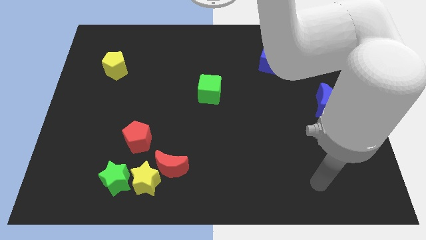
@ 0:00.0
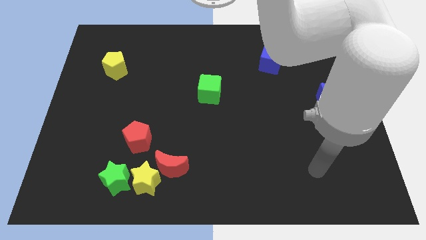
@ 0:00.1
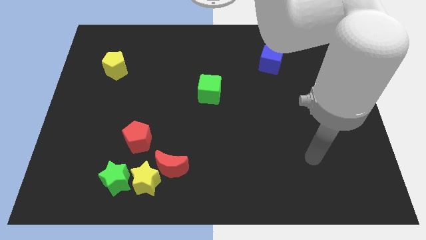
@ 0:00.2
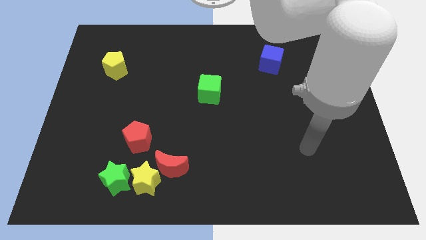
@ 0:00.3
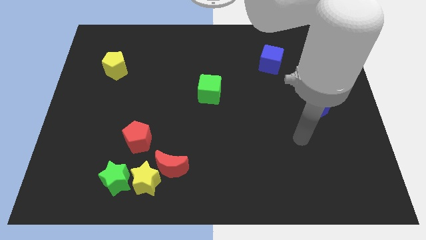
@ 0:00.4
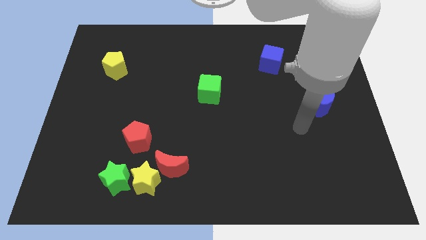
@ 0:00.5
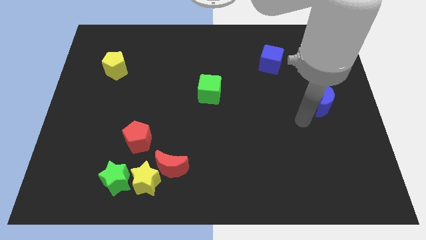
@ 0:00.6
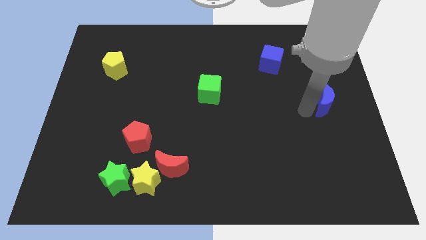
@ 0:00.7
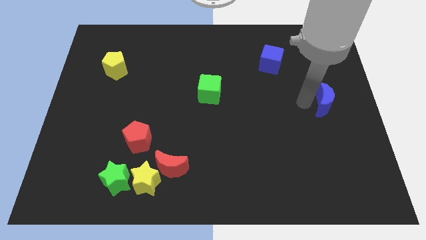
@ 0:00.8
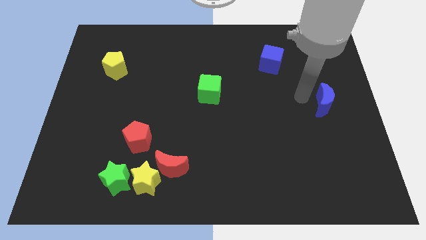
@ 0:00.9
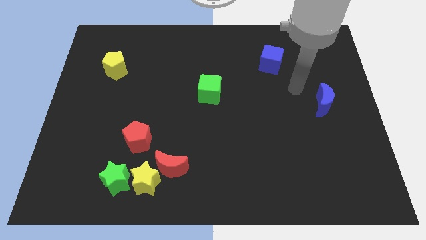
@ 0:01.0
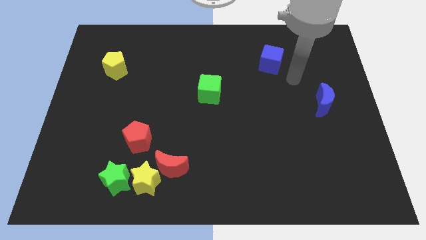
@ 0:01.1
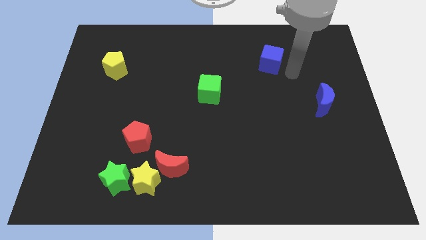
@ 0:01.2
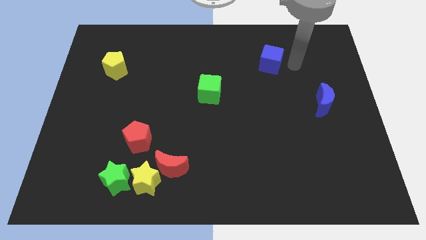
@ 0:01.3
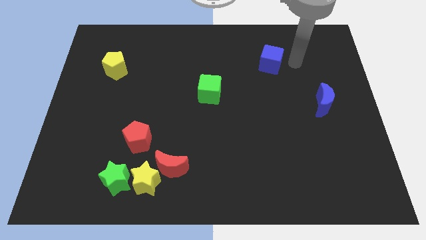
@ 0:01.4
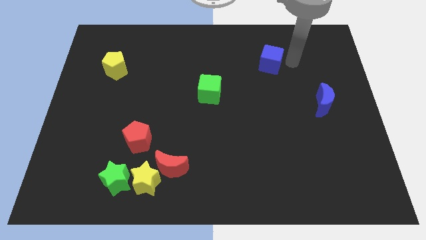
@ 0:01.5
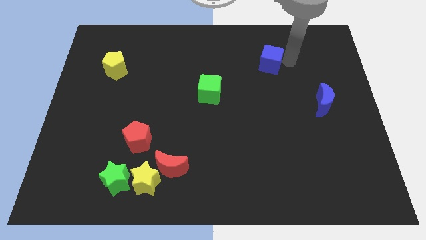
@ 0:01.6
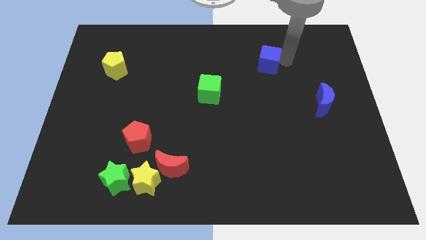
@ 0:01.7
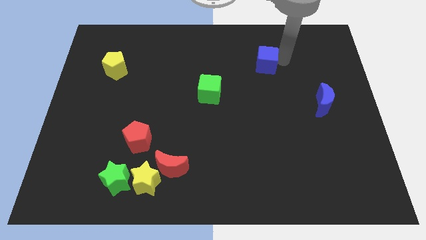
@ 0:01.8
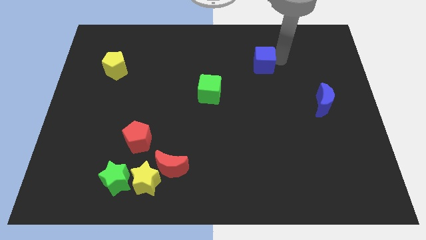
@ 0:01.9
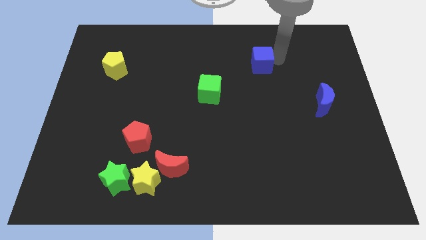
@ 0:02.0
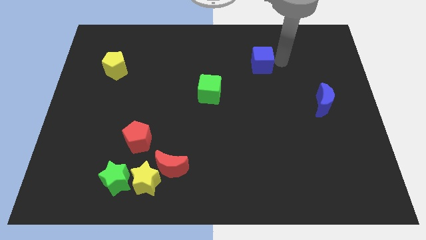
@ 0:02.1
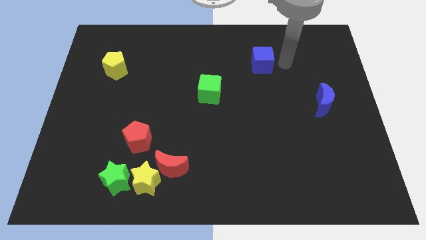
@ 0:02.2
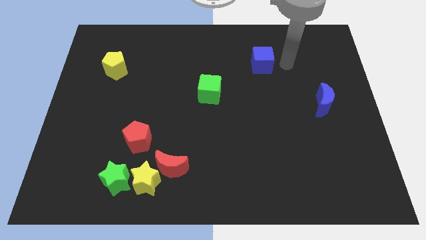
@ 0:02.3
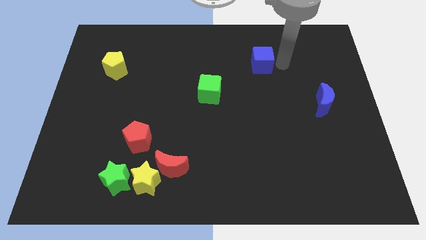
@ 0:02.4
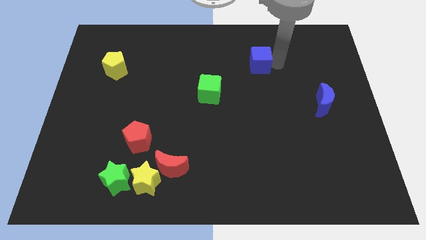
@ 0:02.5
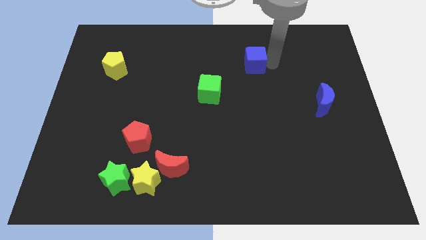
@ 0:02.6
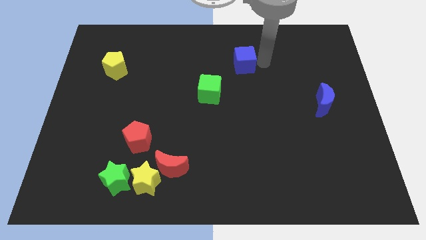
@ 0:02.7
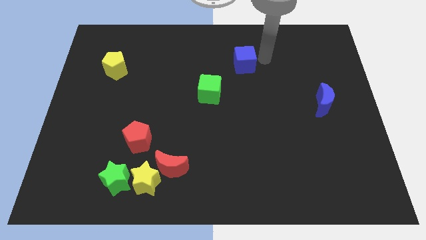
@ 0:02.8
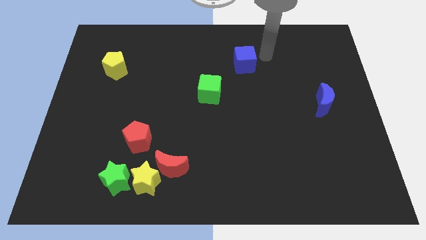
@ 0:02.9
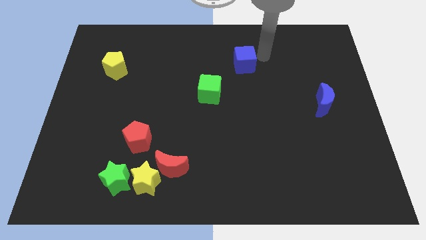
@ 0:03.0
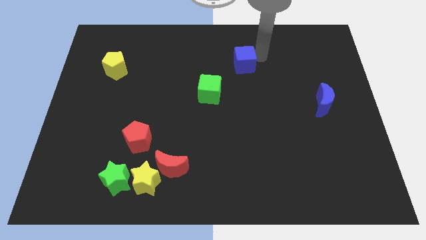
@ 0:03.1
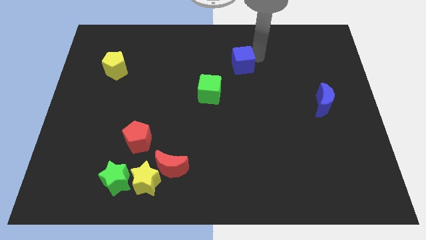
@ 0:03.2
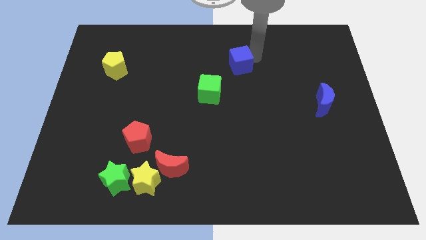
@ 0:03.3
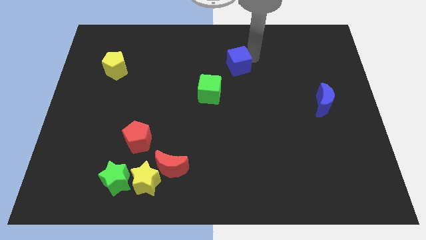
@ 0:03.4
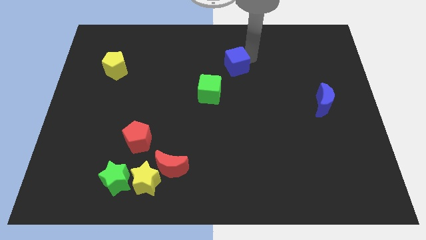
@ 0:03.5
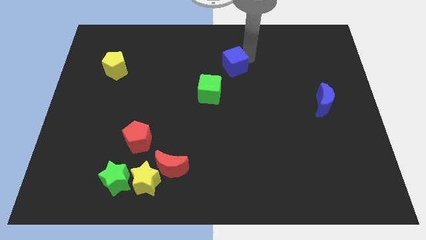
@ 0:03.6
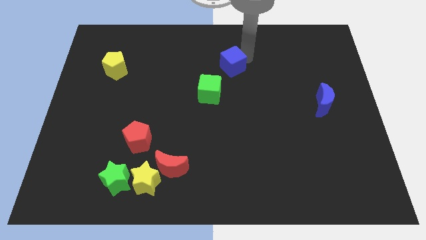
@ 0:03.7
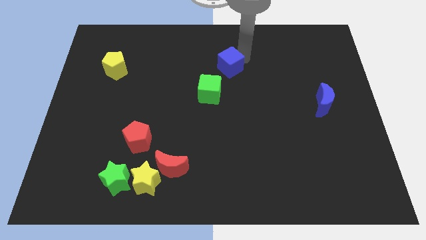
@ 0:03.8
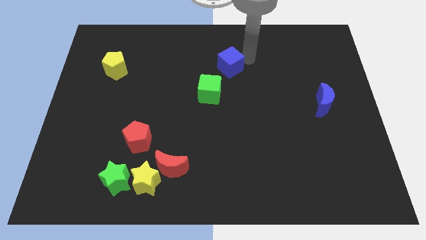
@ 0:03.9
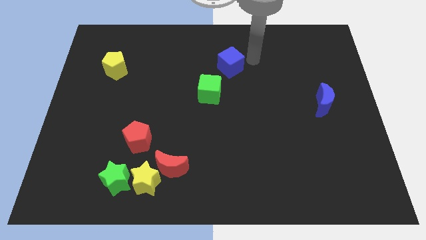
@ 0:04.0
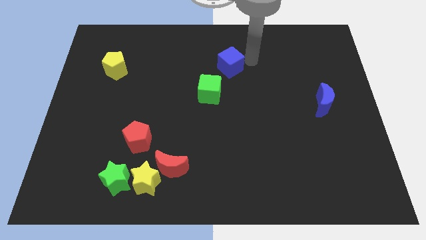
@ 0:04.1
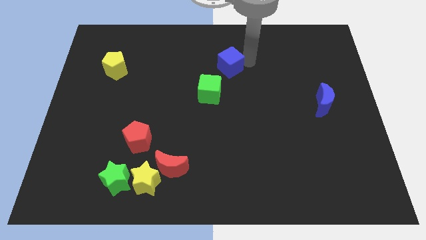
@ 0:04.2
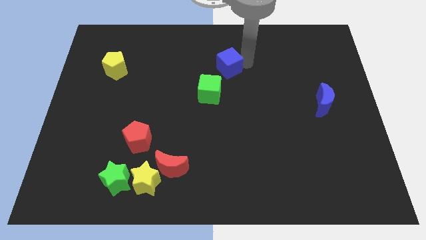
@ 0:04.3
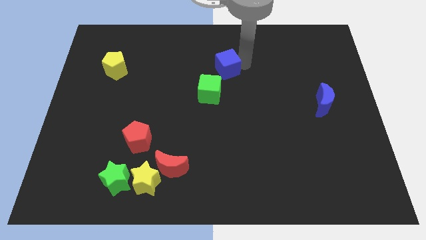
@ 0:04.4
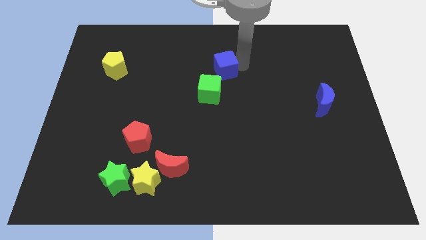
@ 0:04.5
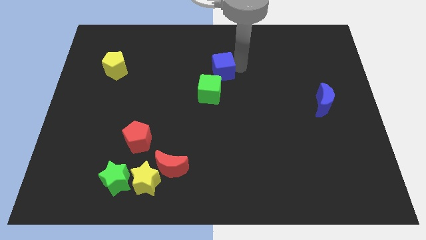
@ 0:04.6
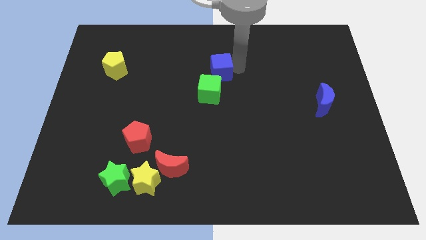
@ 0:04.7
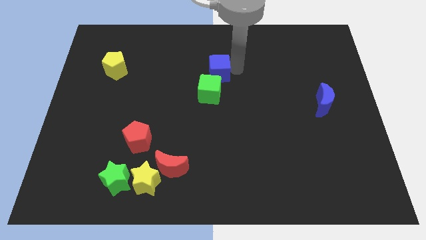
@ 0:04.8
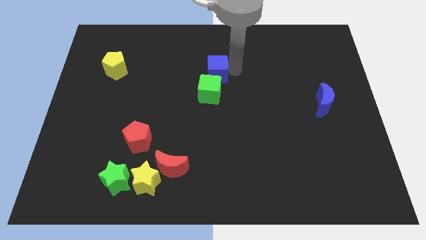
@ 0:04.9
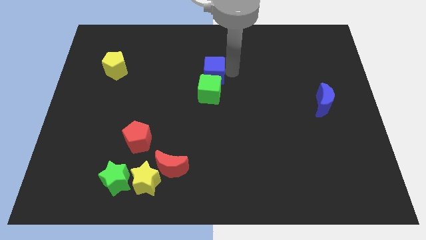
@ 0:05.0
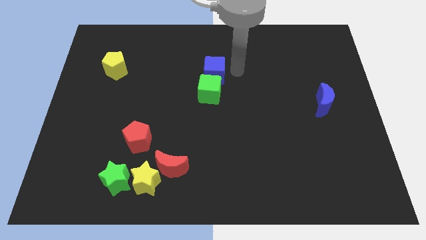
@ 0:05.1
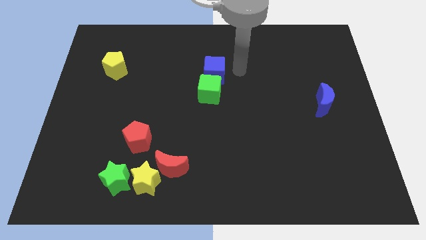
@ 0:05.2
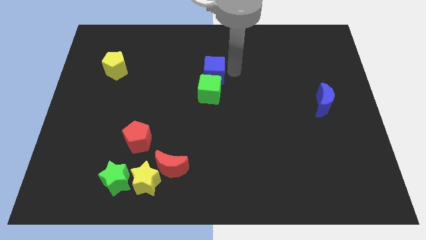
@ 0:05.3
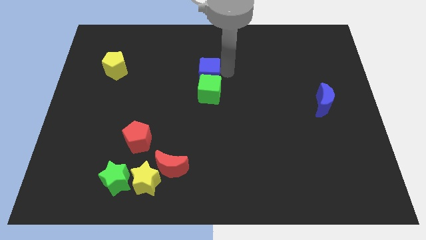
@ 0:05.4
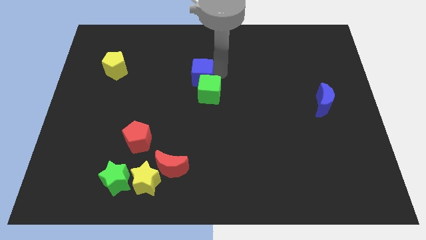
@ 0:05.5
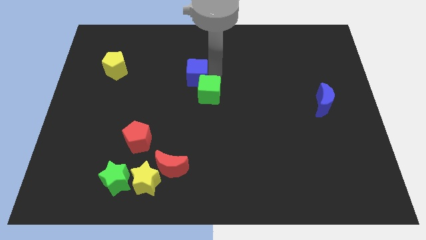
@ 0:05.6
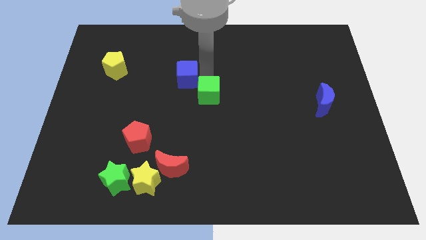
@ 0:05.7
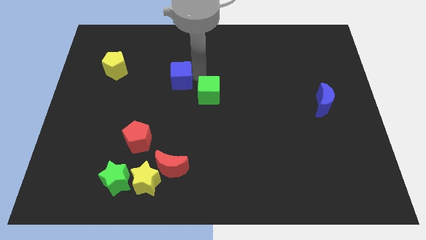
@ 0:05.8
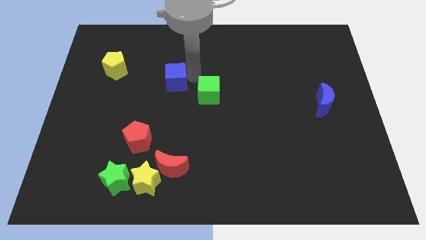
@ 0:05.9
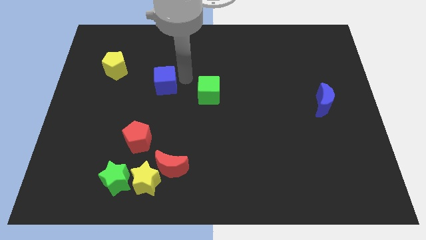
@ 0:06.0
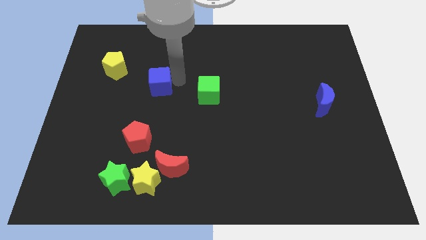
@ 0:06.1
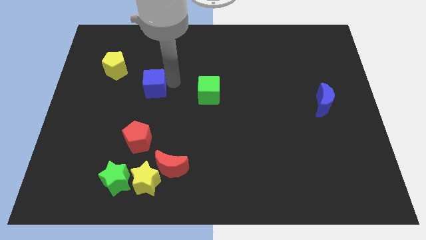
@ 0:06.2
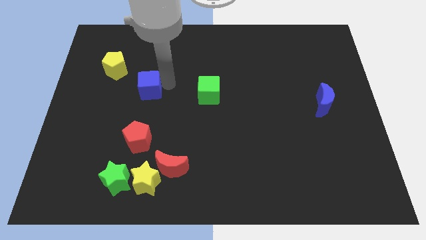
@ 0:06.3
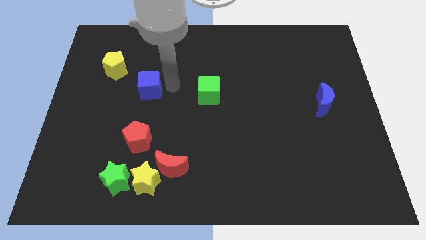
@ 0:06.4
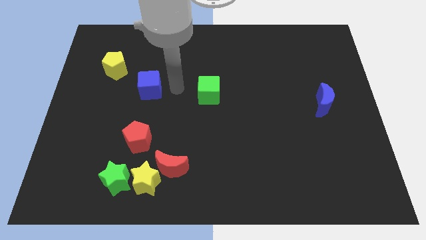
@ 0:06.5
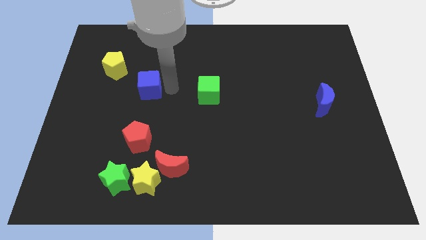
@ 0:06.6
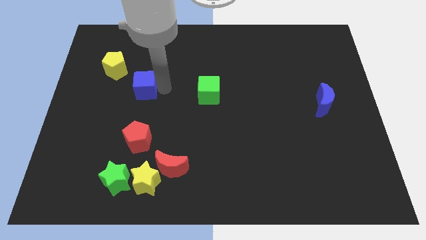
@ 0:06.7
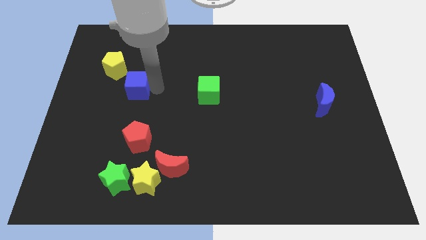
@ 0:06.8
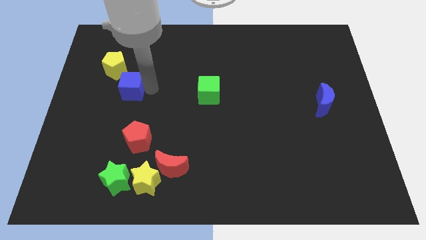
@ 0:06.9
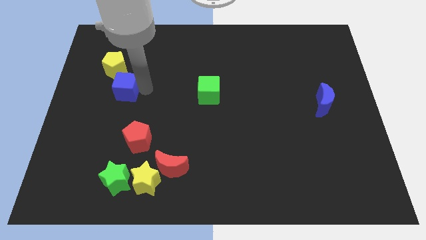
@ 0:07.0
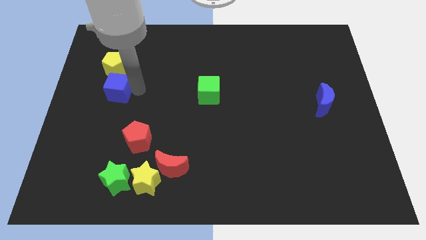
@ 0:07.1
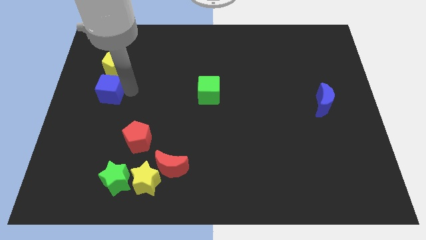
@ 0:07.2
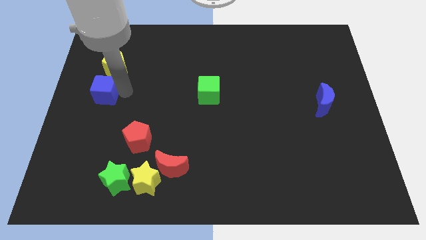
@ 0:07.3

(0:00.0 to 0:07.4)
move the blue cube to the center left
